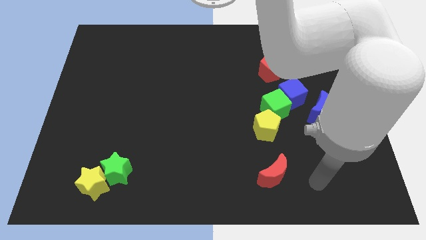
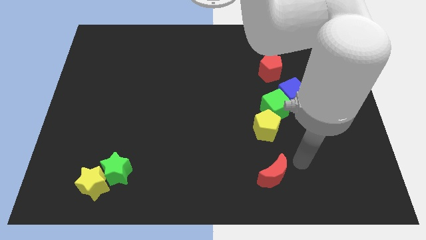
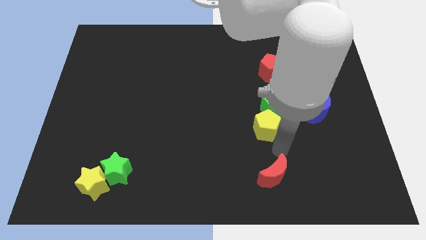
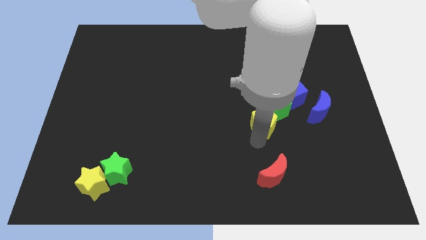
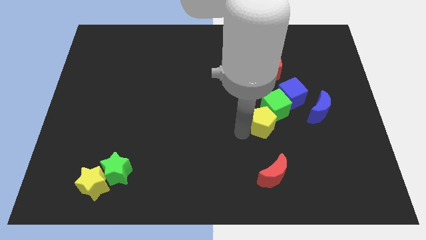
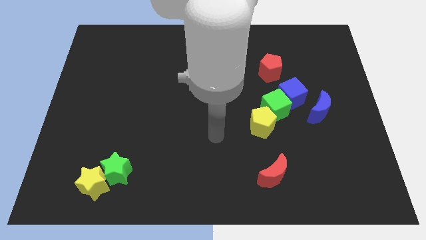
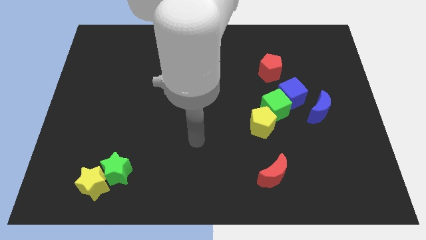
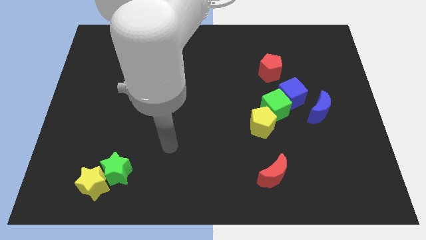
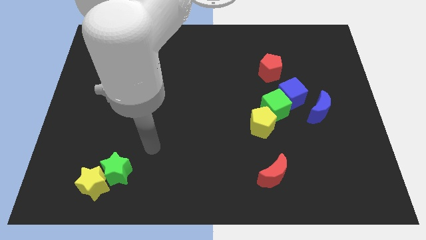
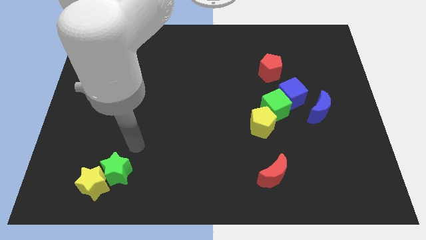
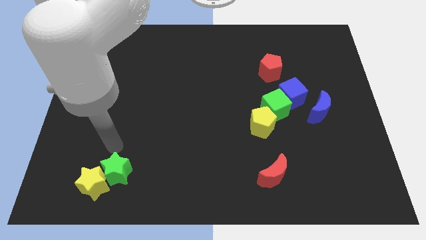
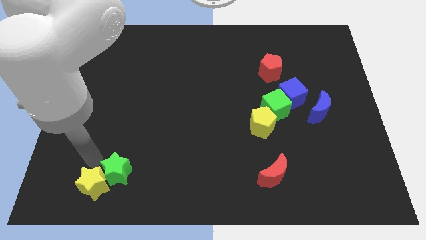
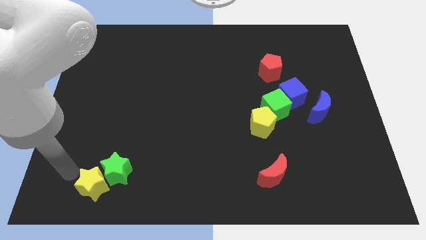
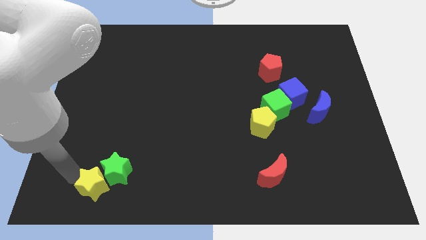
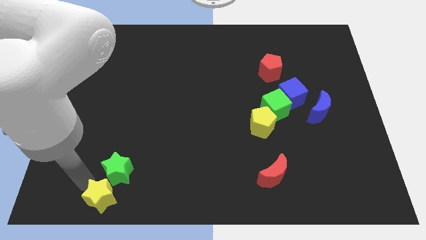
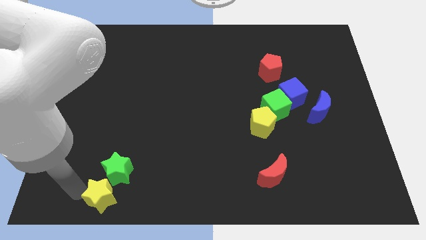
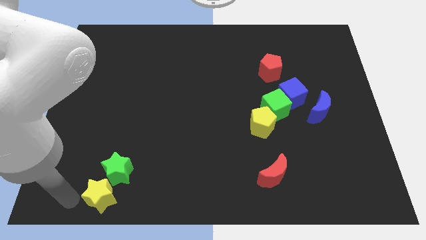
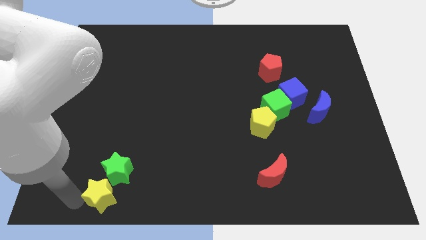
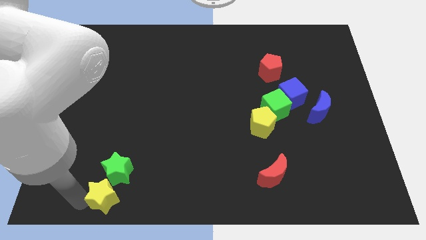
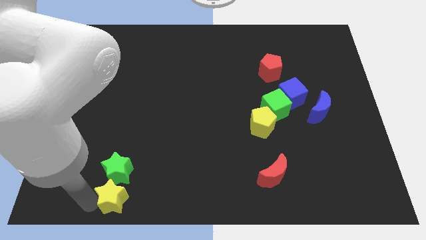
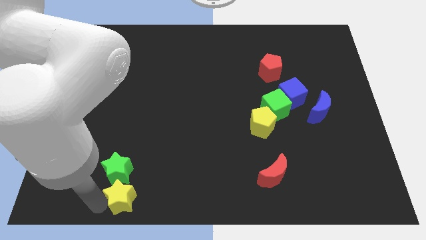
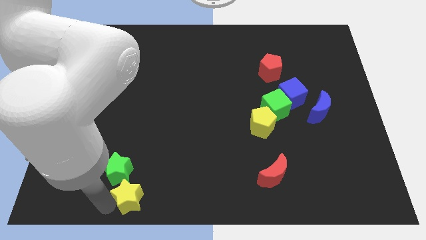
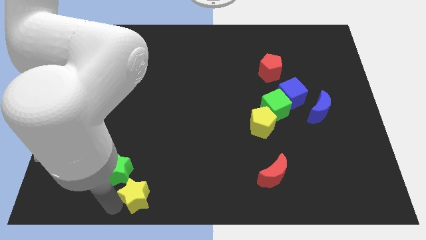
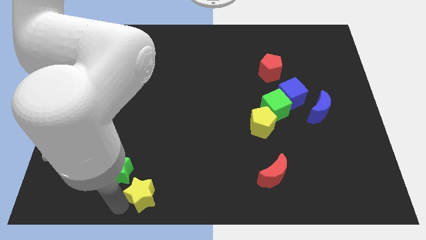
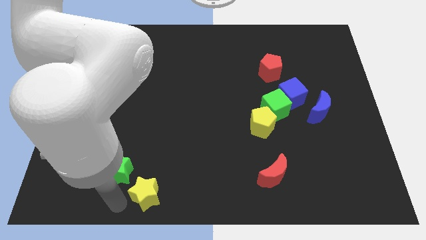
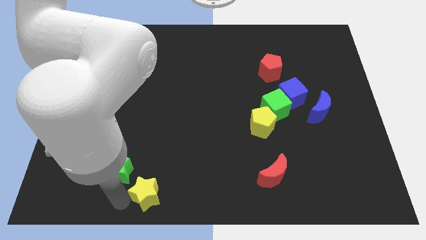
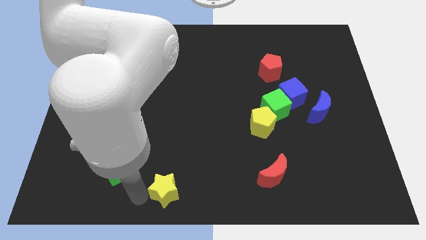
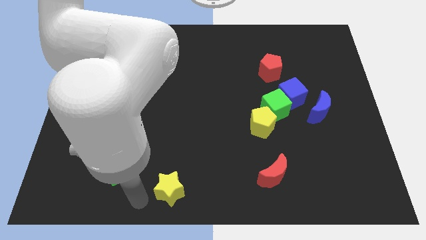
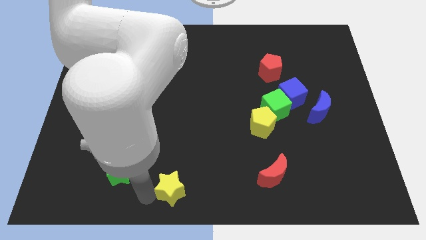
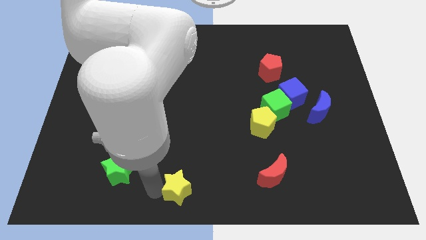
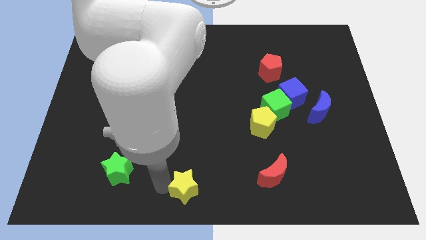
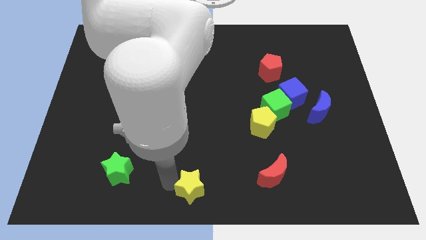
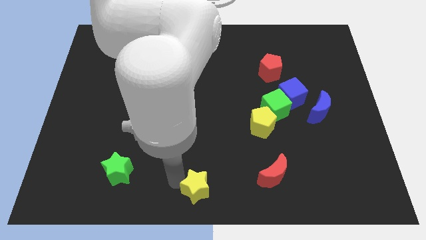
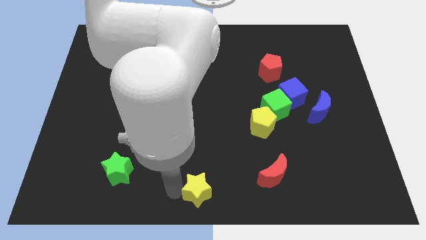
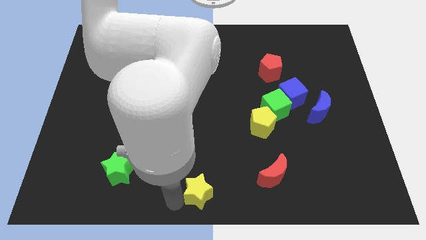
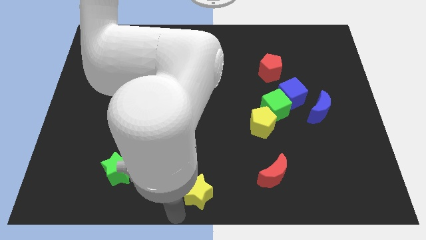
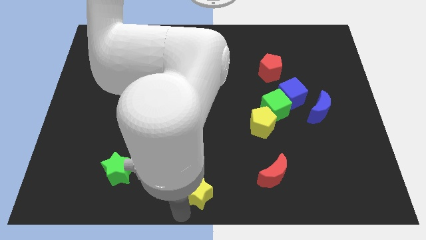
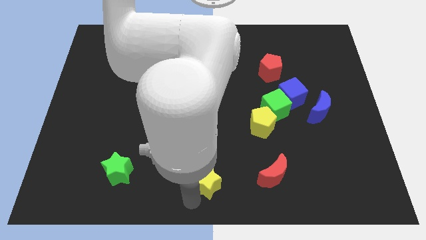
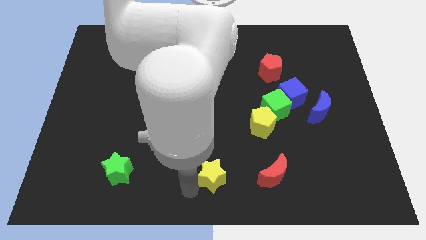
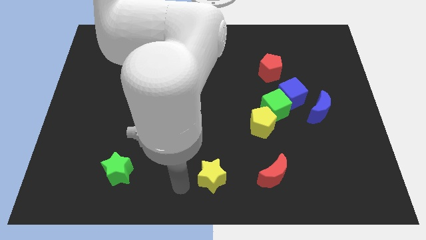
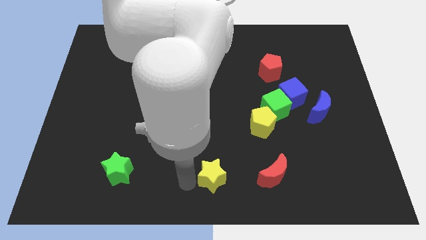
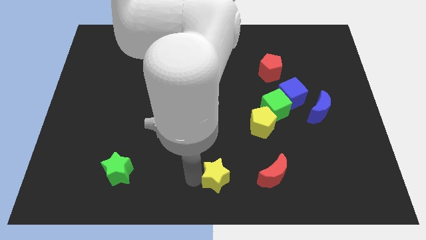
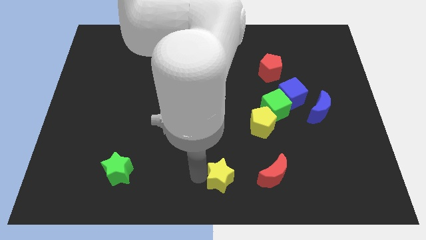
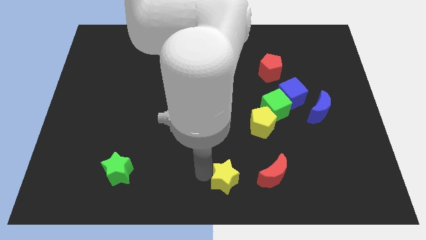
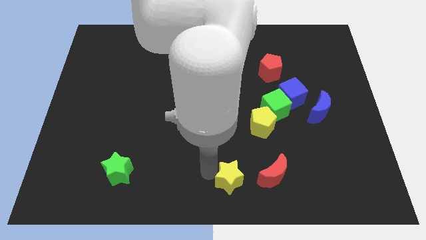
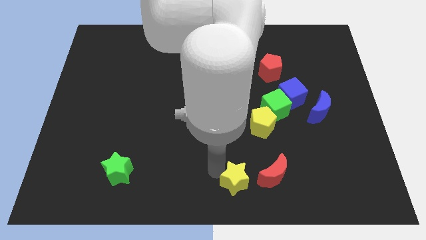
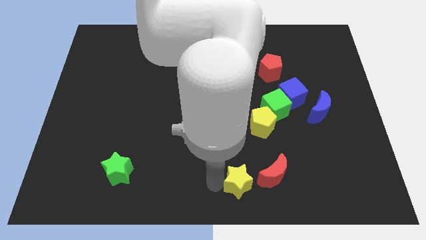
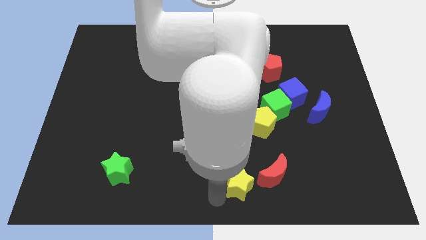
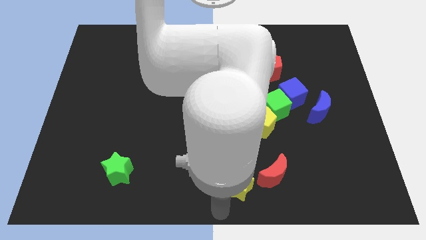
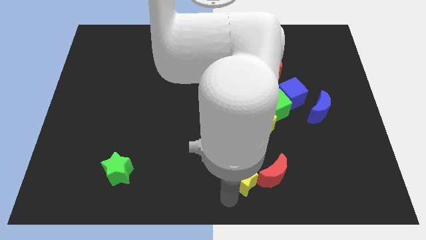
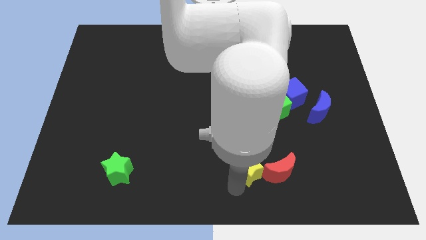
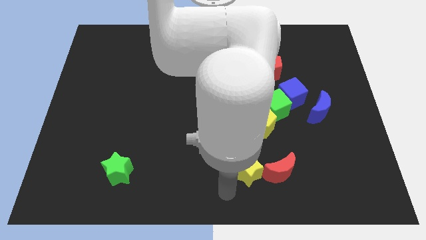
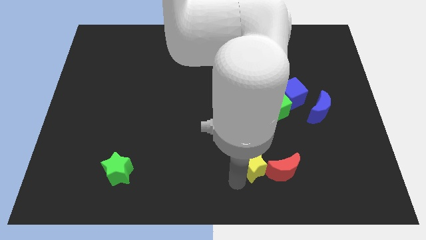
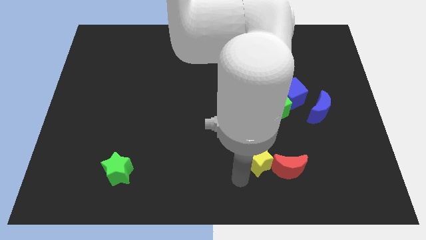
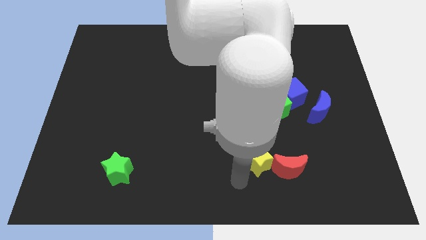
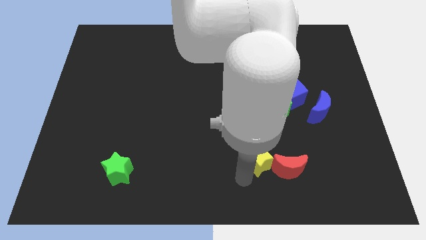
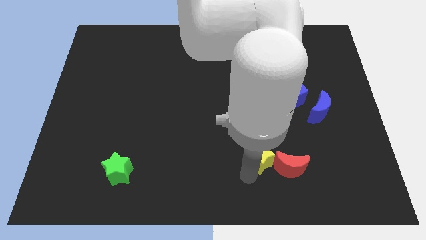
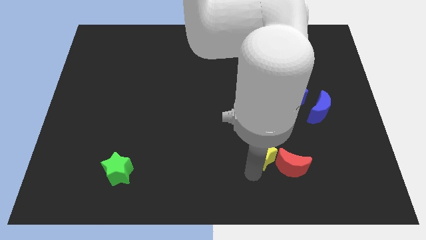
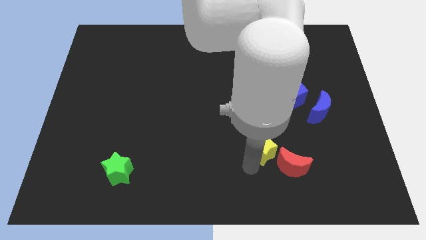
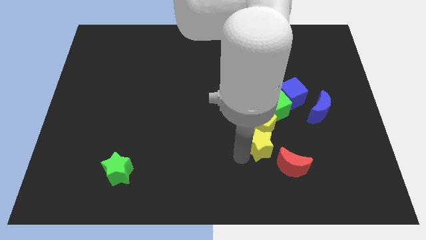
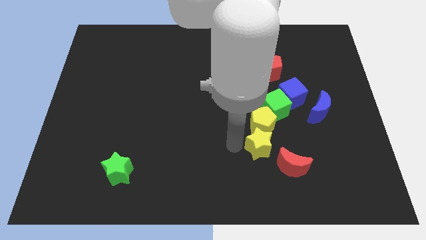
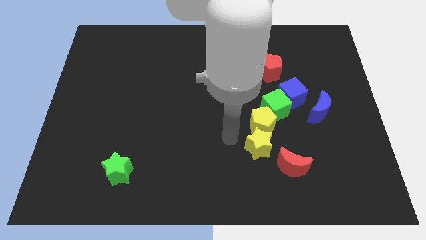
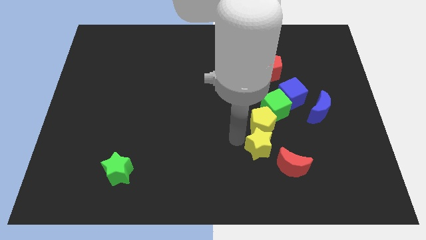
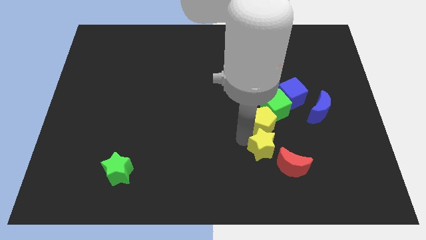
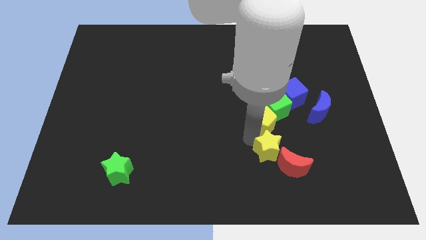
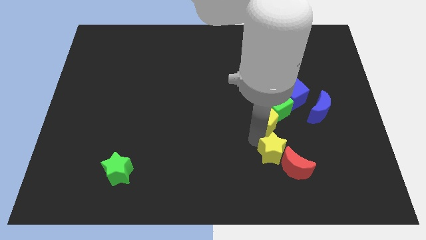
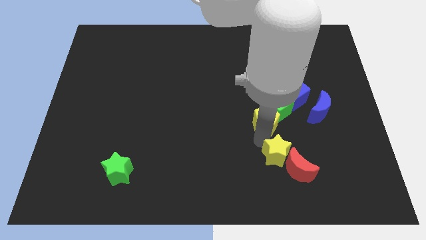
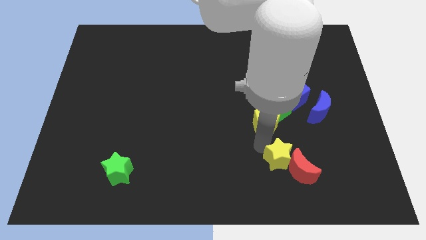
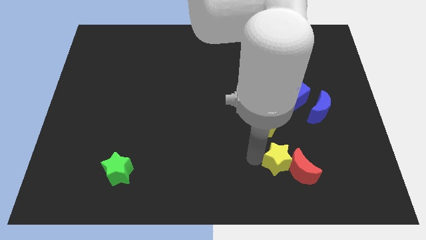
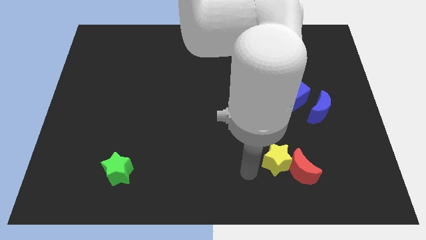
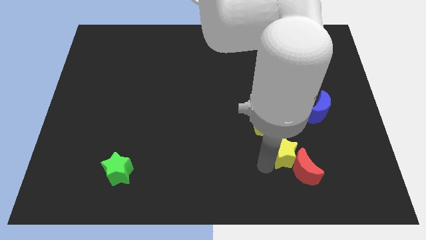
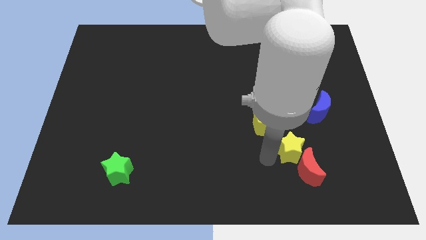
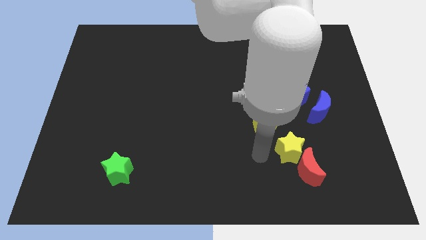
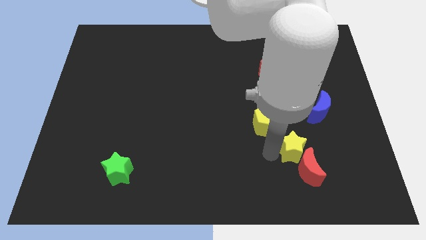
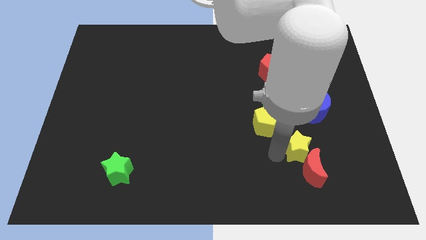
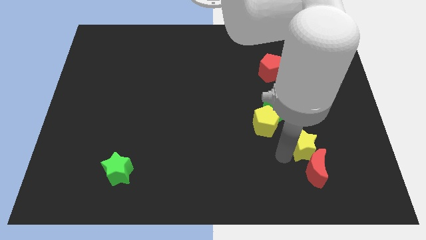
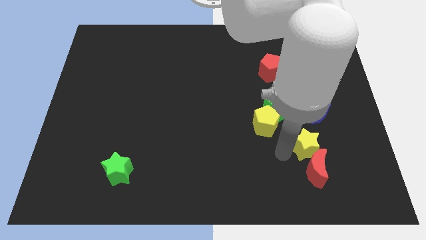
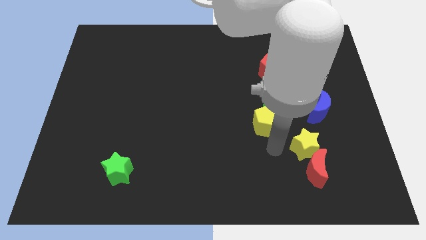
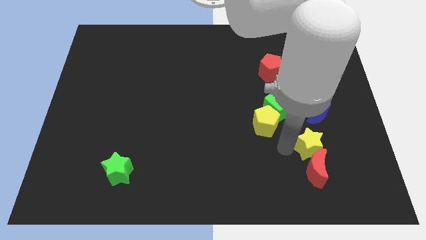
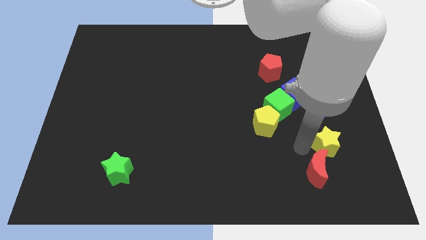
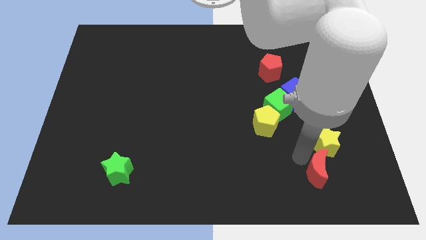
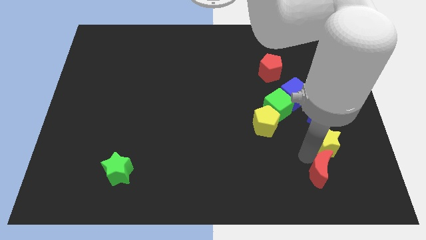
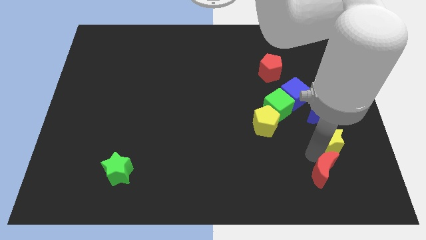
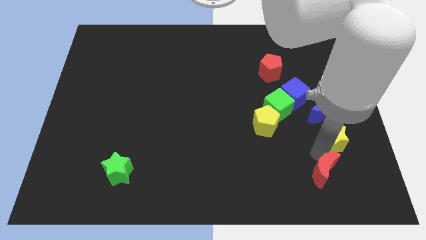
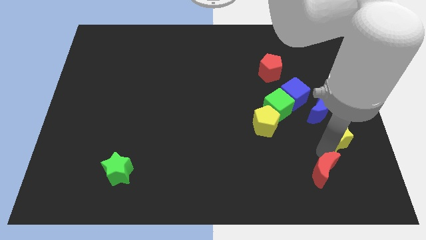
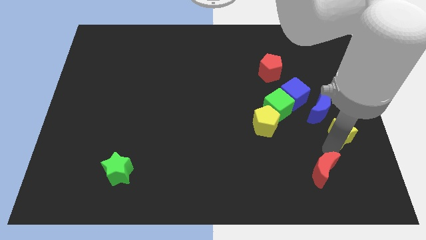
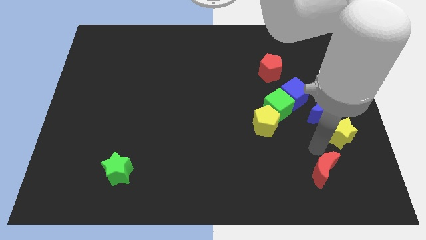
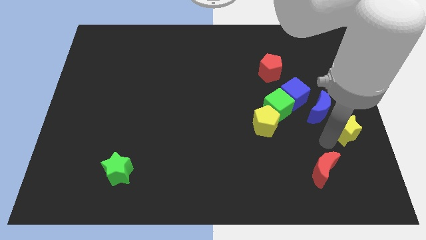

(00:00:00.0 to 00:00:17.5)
put the yellow star to the right side of the board
